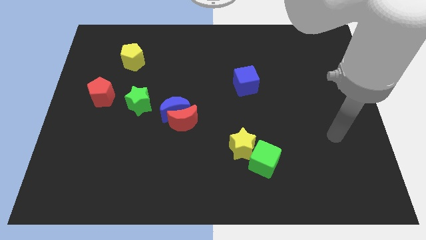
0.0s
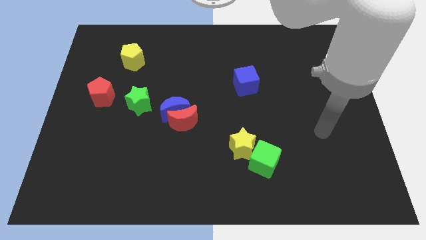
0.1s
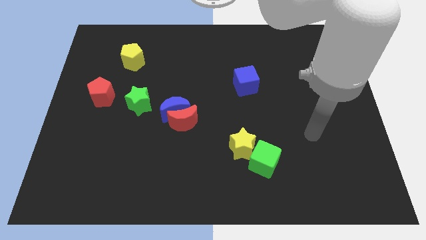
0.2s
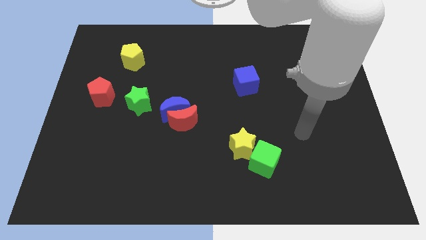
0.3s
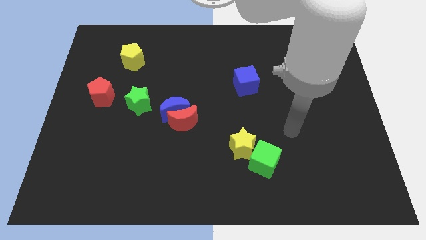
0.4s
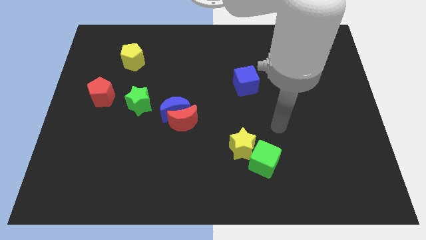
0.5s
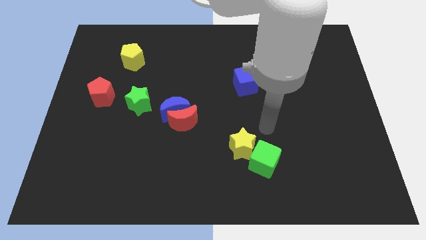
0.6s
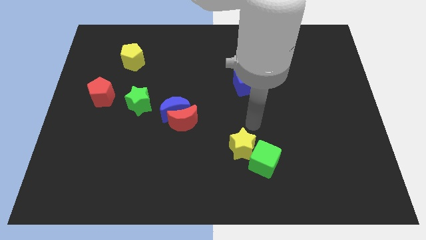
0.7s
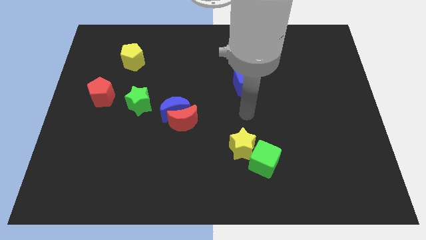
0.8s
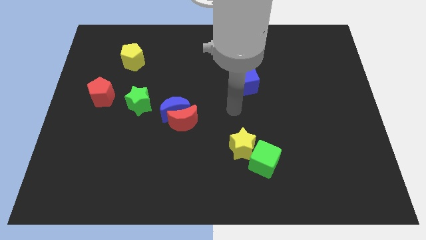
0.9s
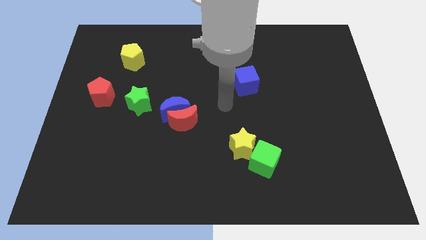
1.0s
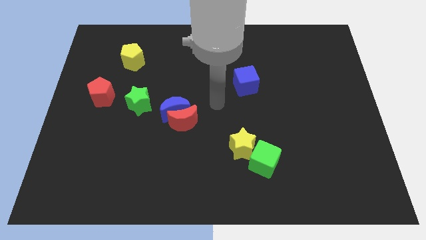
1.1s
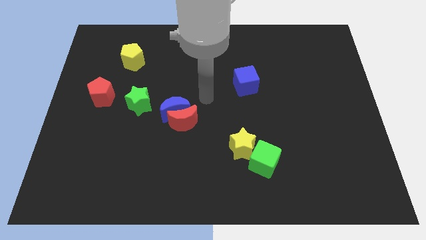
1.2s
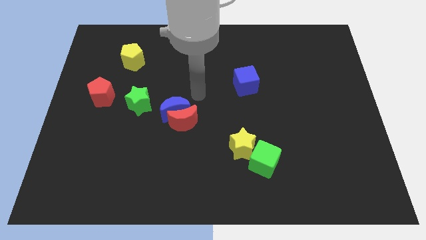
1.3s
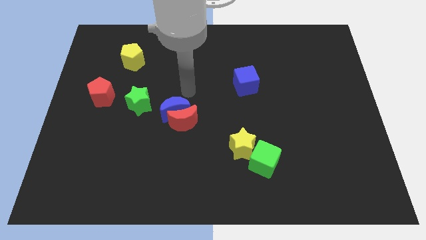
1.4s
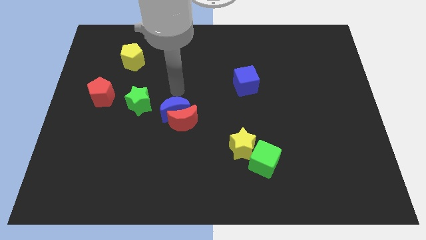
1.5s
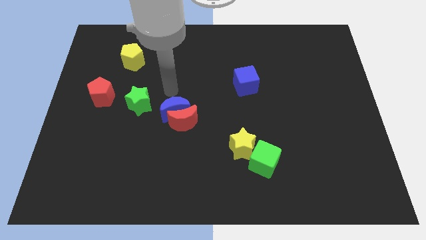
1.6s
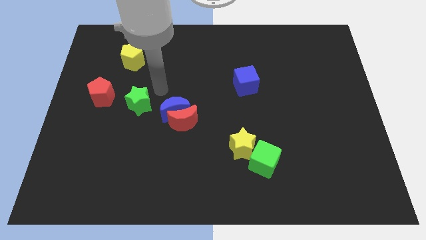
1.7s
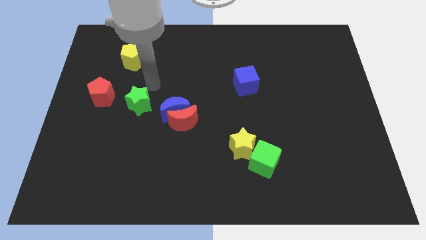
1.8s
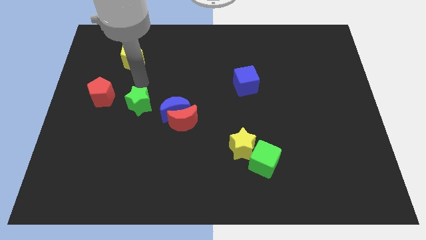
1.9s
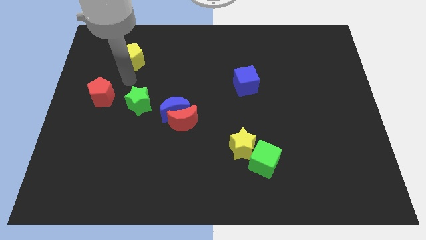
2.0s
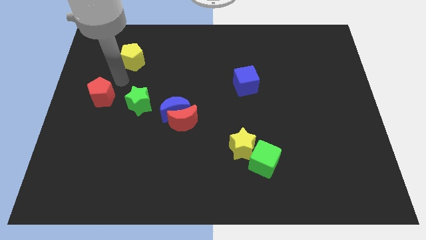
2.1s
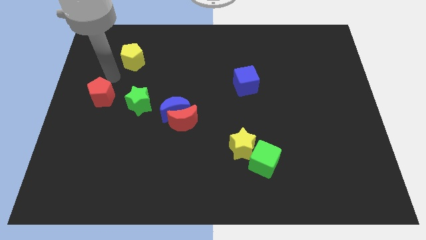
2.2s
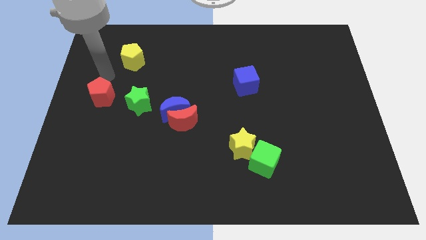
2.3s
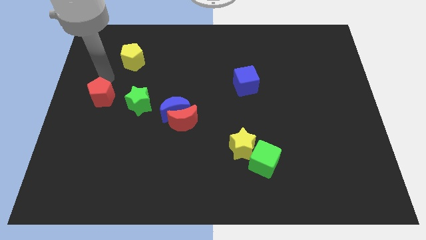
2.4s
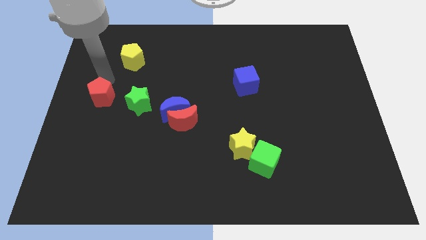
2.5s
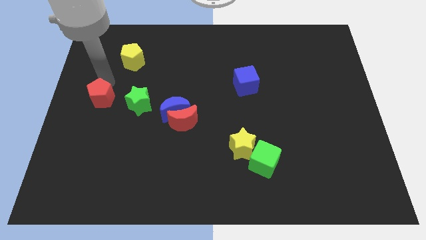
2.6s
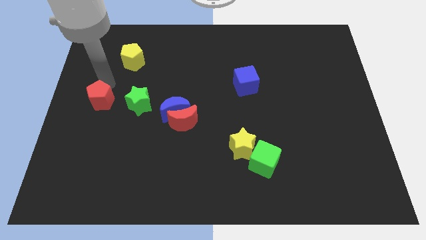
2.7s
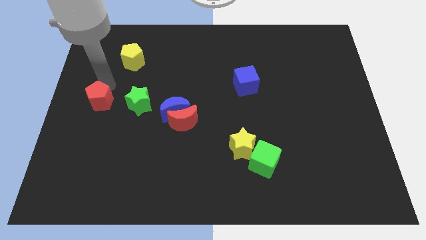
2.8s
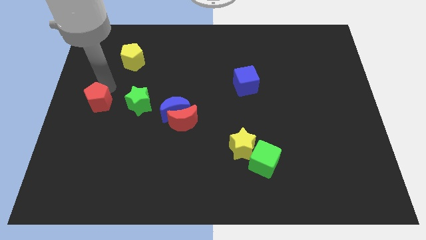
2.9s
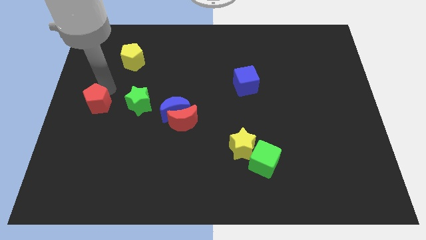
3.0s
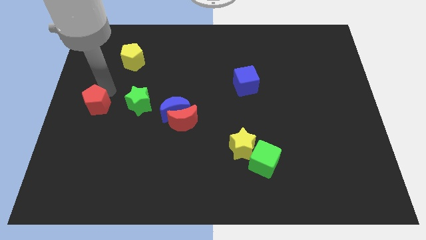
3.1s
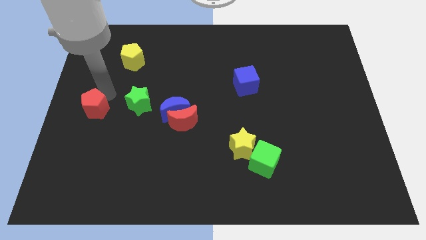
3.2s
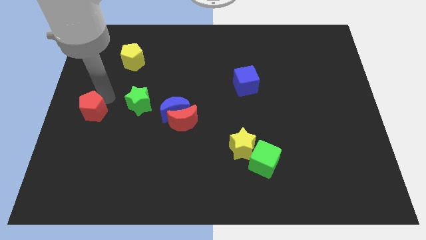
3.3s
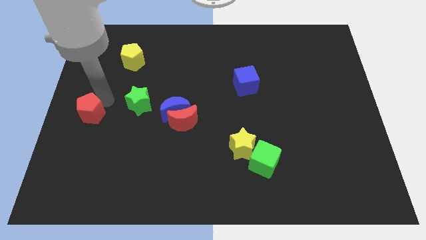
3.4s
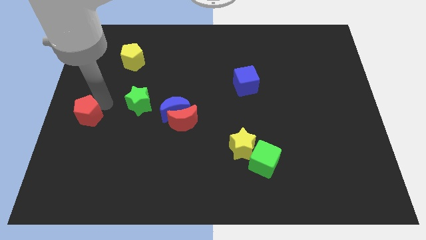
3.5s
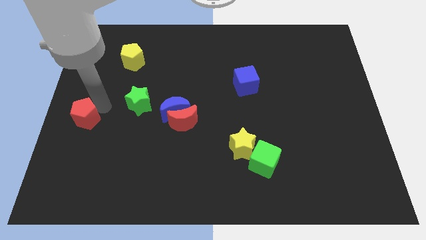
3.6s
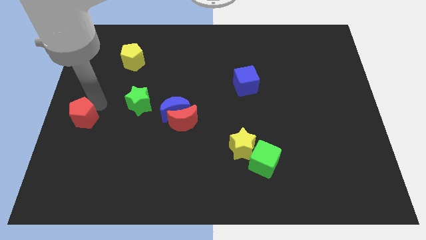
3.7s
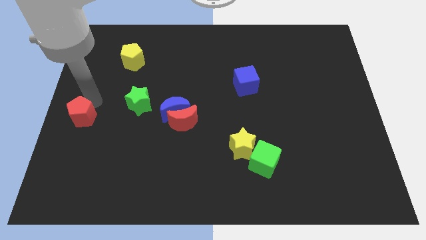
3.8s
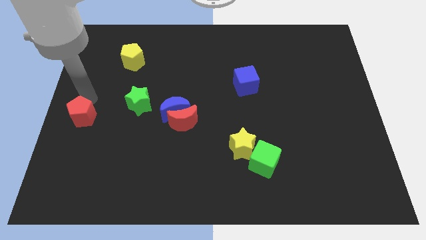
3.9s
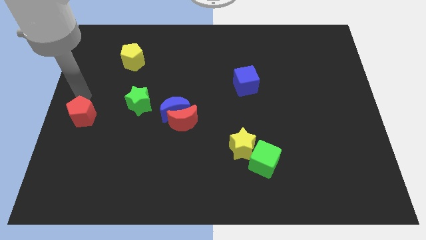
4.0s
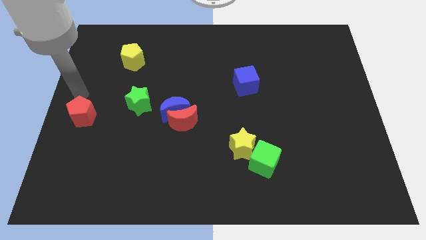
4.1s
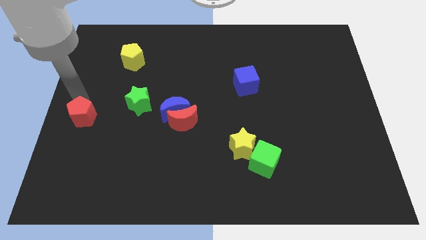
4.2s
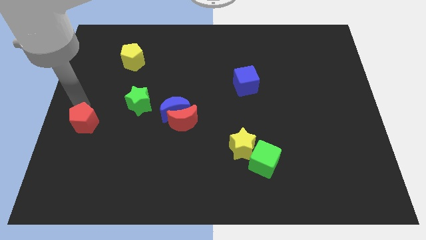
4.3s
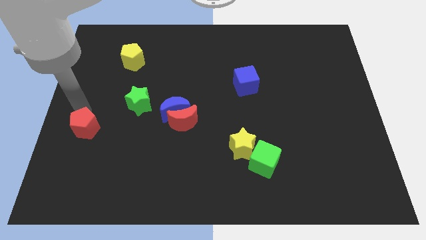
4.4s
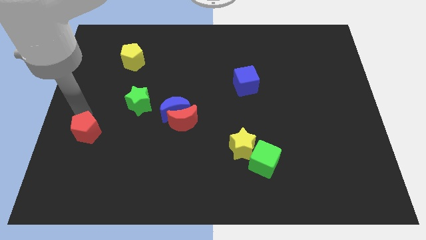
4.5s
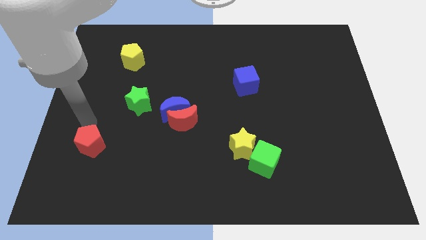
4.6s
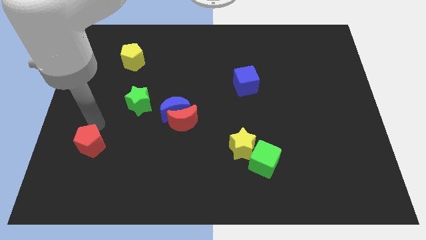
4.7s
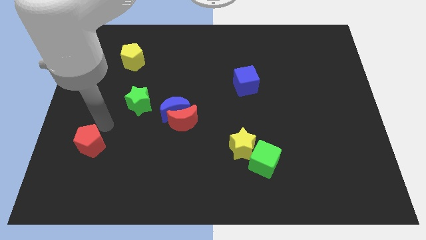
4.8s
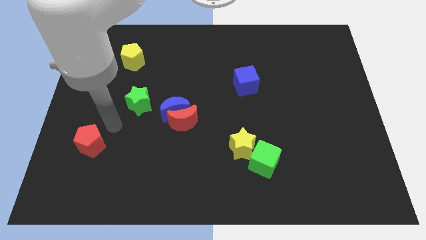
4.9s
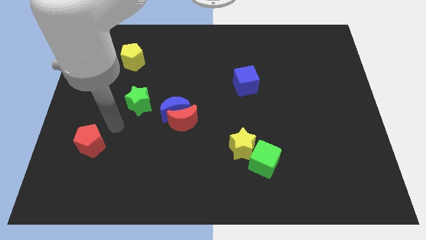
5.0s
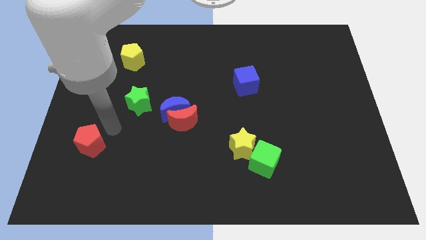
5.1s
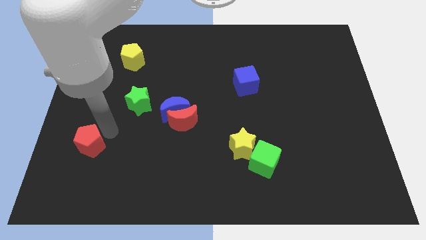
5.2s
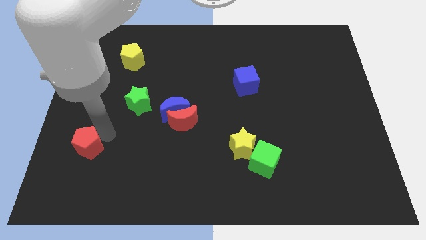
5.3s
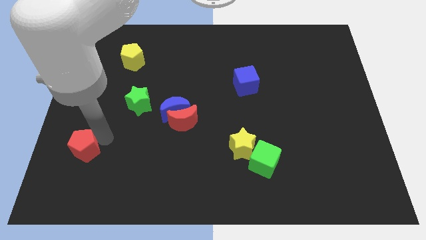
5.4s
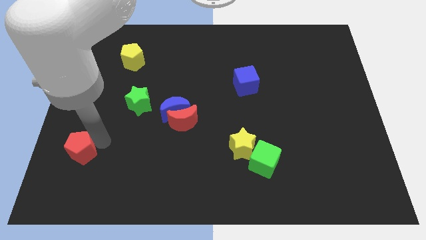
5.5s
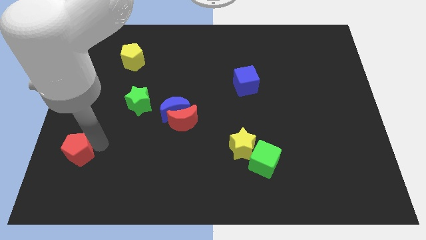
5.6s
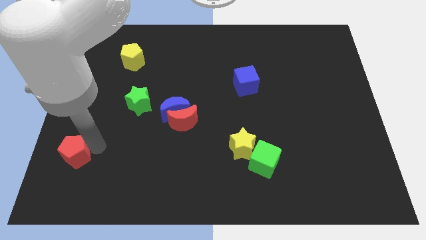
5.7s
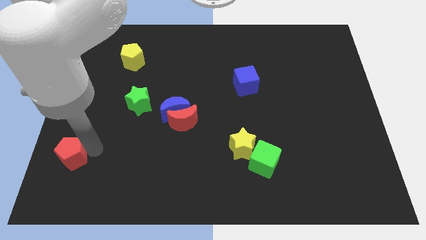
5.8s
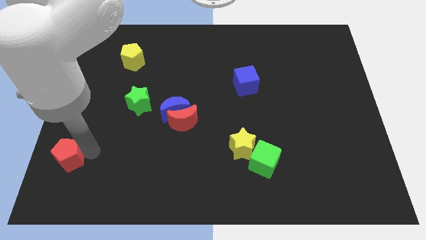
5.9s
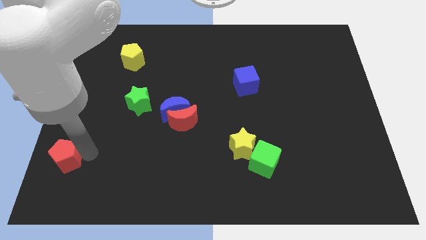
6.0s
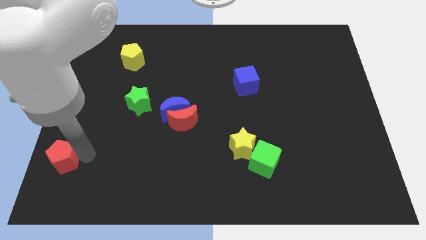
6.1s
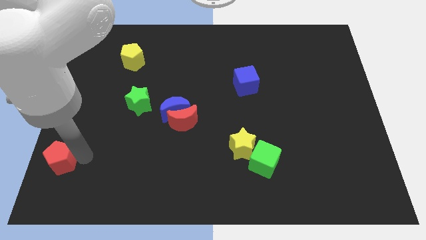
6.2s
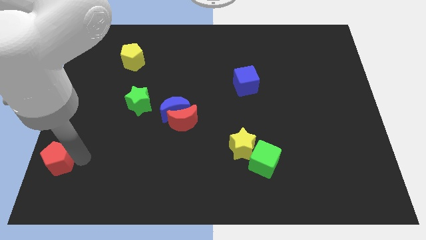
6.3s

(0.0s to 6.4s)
slide the red pentagon to the bottom left

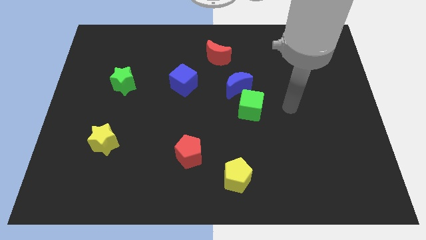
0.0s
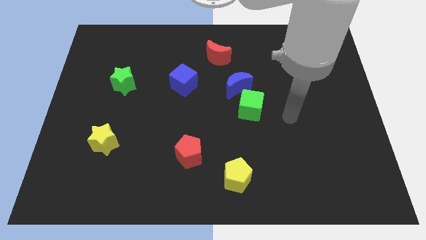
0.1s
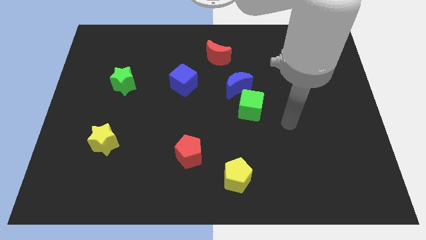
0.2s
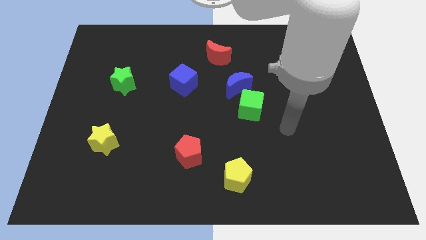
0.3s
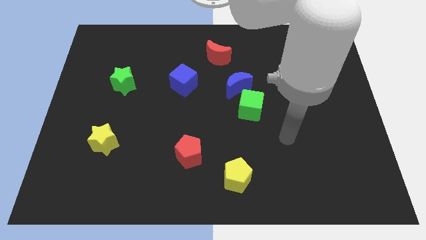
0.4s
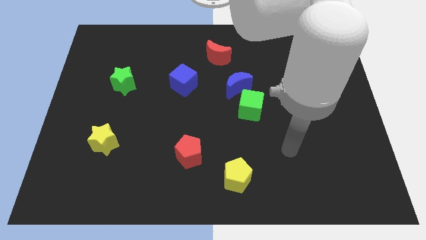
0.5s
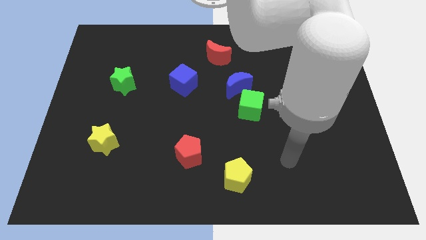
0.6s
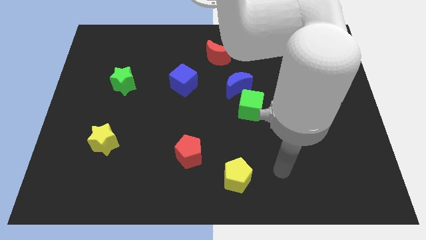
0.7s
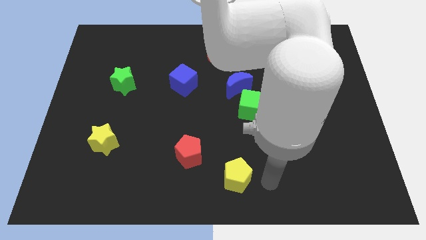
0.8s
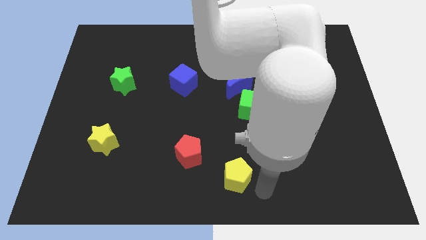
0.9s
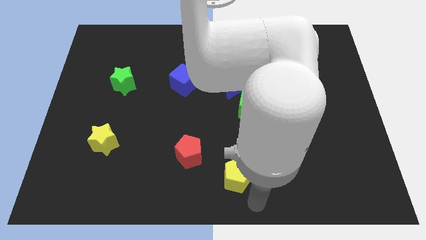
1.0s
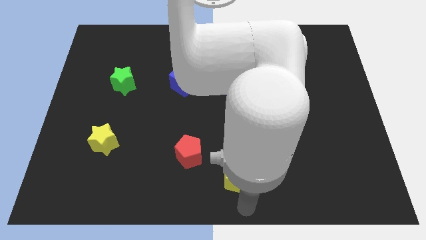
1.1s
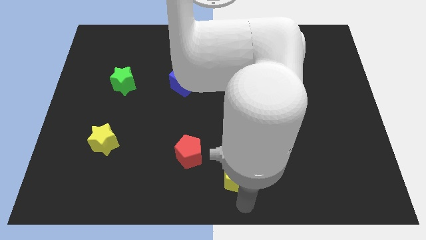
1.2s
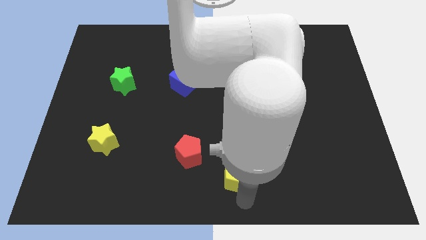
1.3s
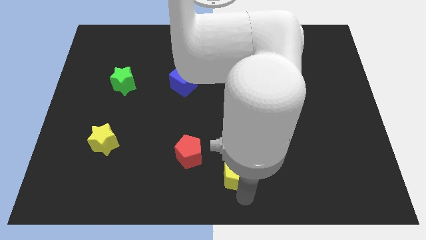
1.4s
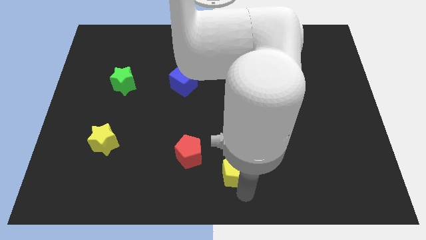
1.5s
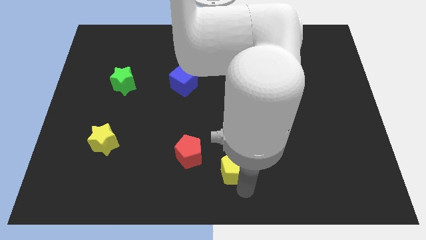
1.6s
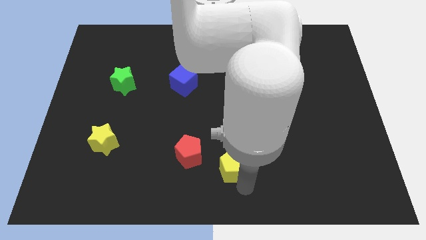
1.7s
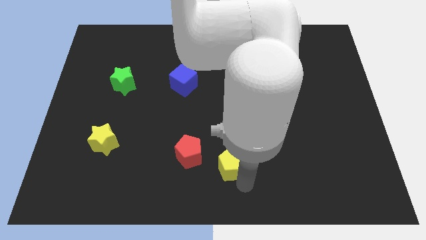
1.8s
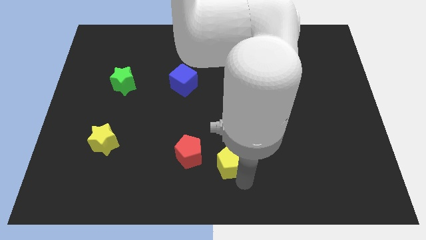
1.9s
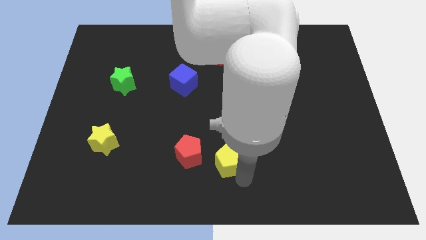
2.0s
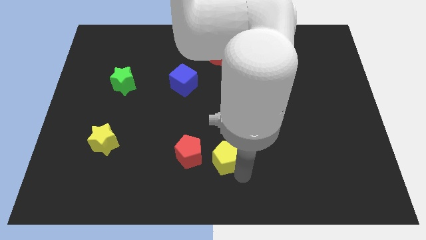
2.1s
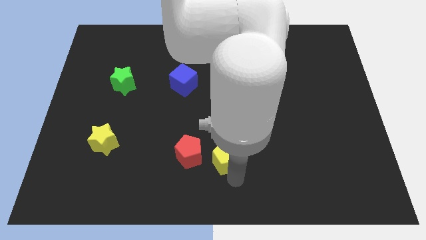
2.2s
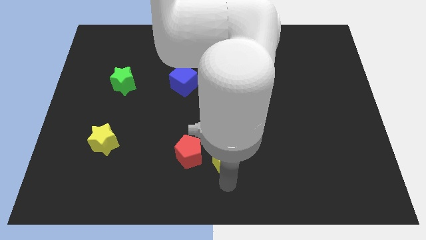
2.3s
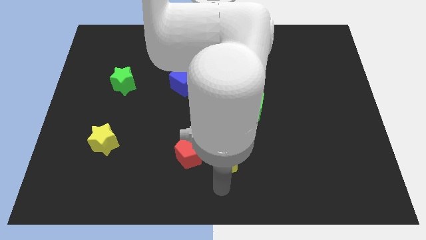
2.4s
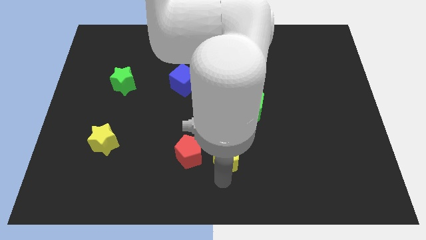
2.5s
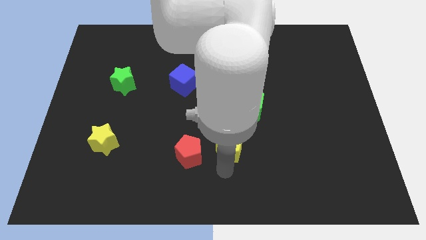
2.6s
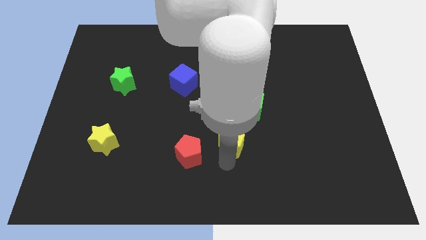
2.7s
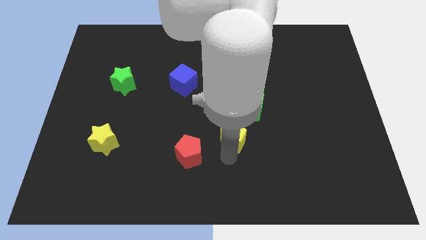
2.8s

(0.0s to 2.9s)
move the yellow pentagon to the middle of the board
